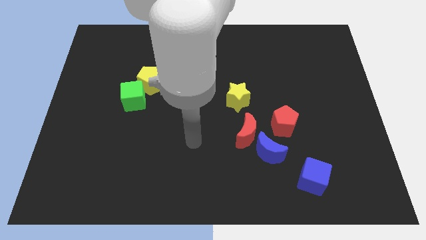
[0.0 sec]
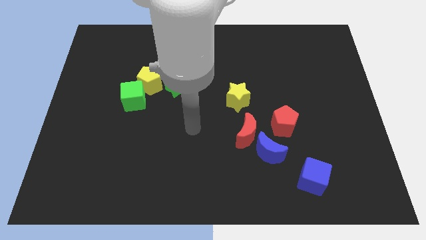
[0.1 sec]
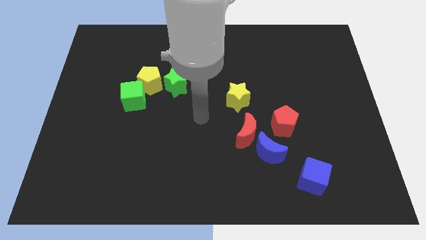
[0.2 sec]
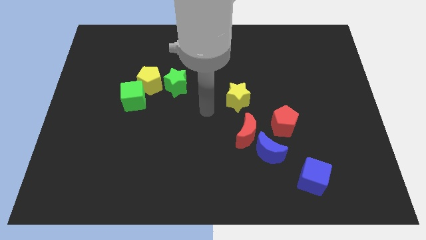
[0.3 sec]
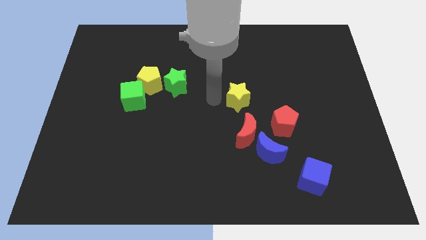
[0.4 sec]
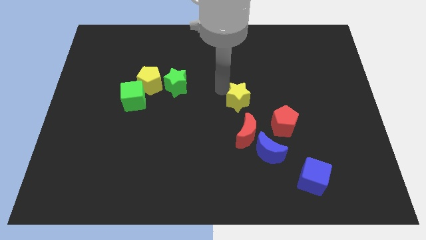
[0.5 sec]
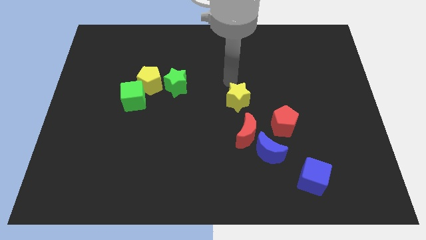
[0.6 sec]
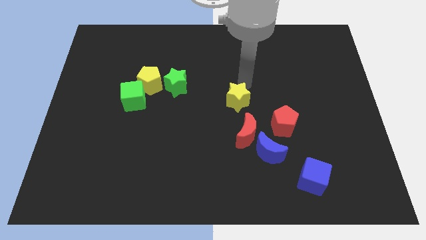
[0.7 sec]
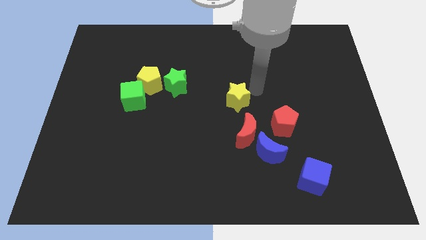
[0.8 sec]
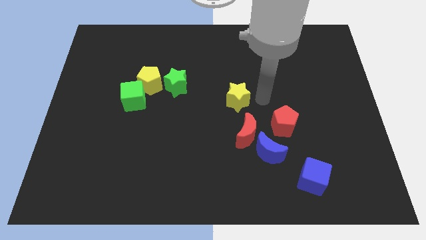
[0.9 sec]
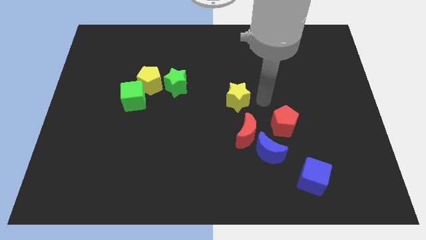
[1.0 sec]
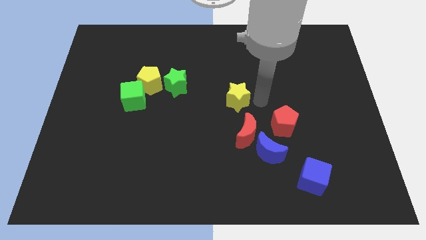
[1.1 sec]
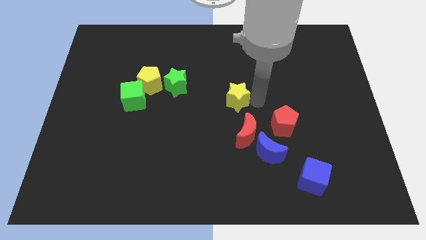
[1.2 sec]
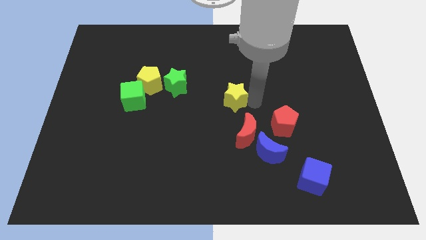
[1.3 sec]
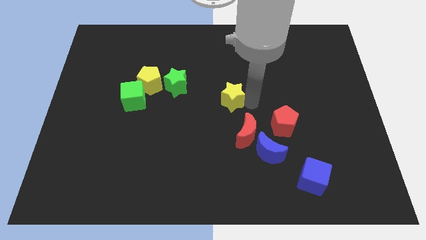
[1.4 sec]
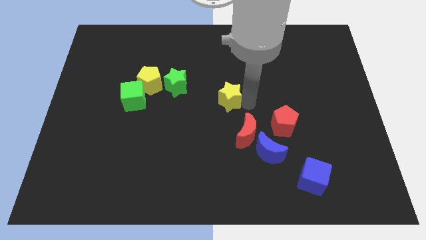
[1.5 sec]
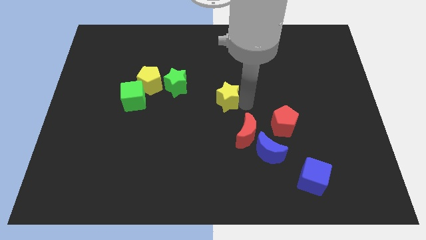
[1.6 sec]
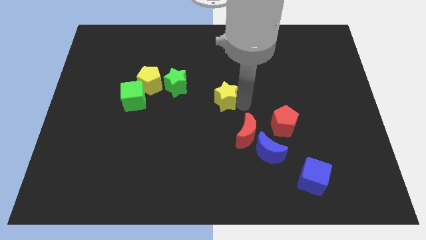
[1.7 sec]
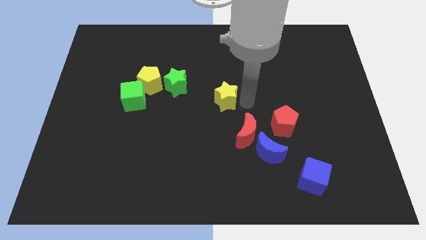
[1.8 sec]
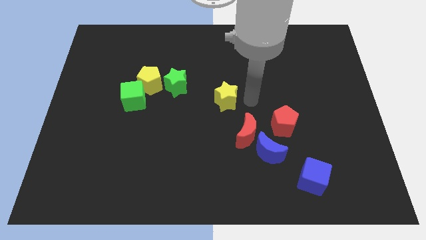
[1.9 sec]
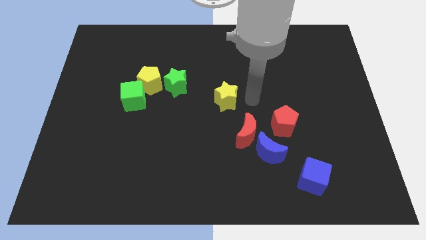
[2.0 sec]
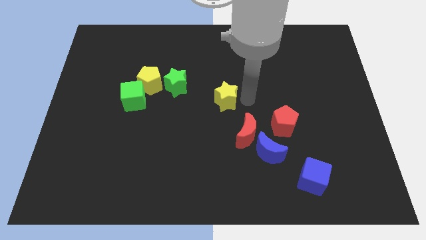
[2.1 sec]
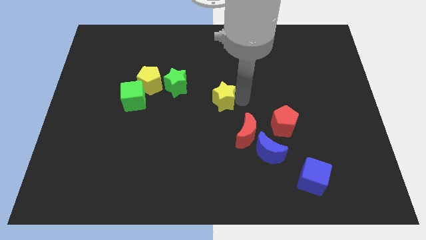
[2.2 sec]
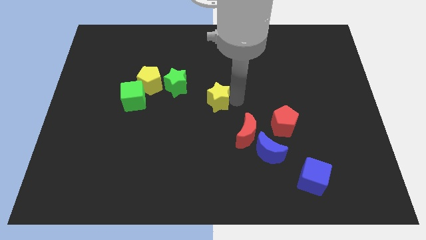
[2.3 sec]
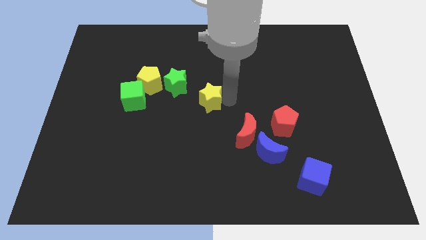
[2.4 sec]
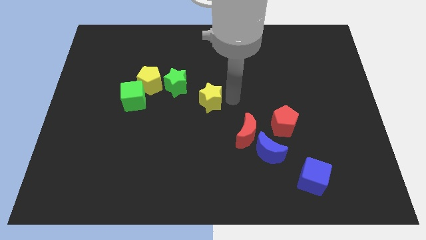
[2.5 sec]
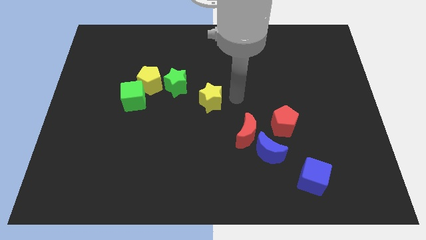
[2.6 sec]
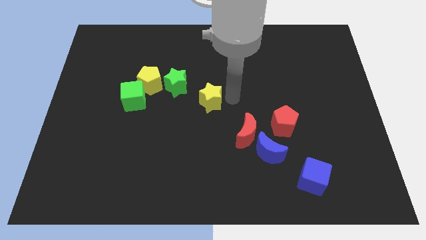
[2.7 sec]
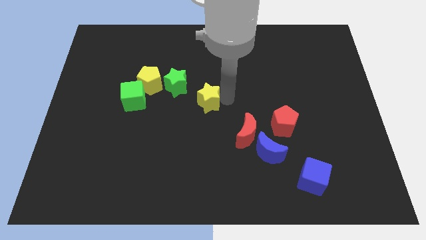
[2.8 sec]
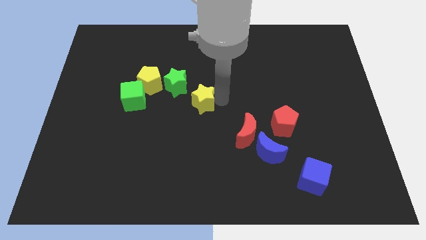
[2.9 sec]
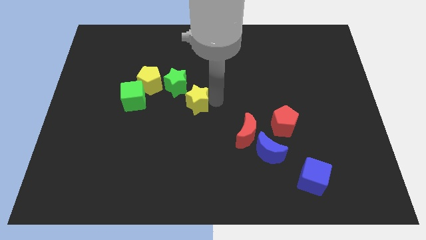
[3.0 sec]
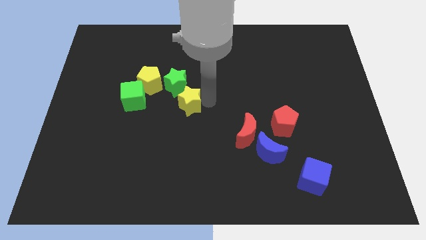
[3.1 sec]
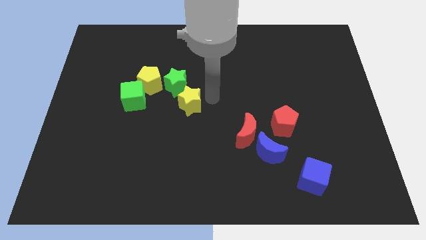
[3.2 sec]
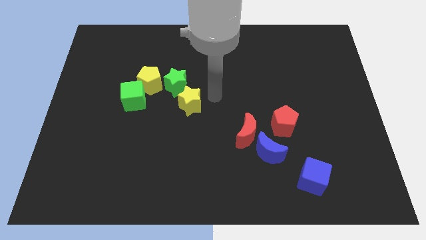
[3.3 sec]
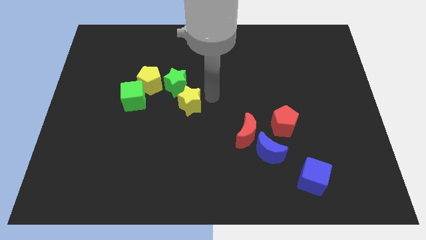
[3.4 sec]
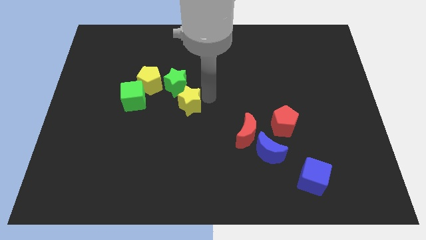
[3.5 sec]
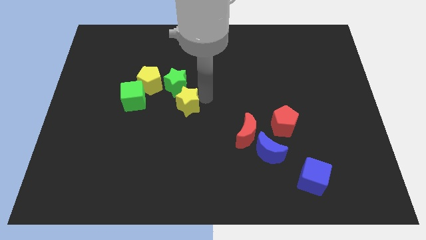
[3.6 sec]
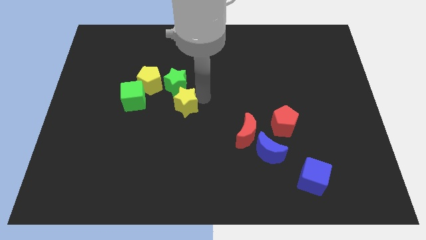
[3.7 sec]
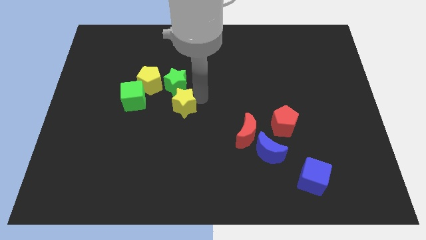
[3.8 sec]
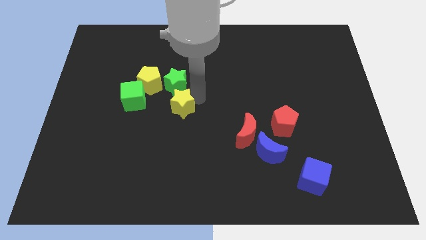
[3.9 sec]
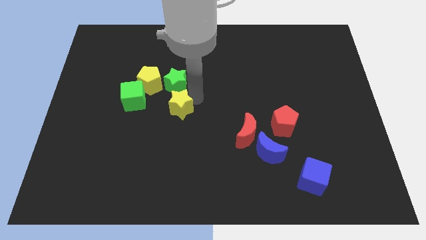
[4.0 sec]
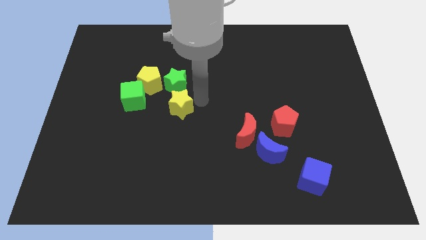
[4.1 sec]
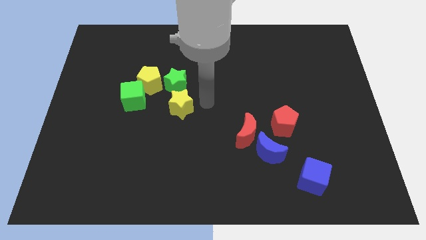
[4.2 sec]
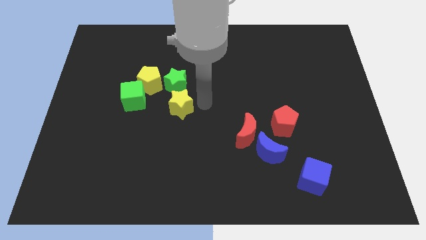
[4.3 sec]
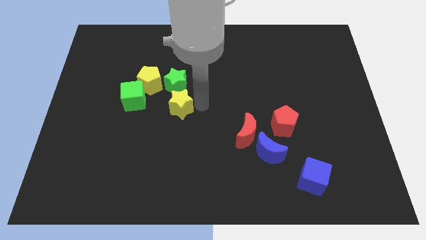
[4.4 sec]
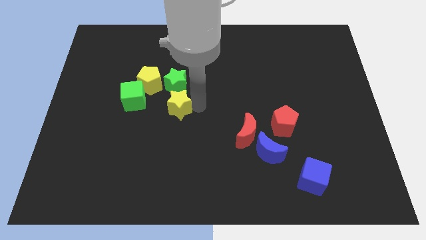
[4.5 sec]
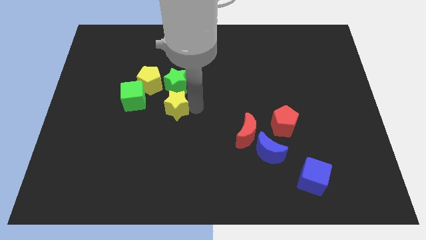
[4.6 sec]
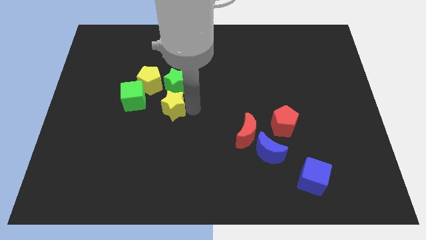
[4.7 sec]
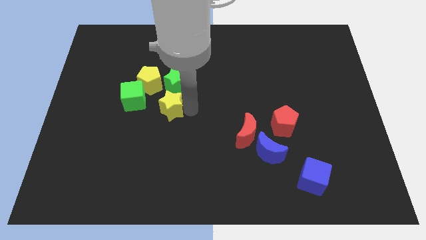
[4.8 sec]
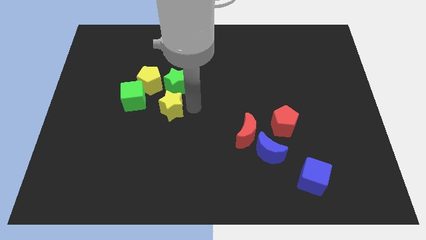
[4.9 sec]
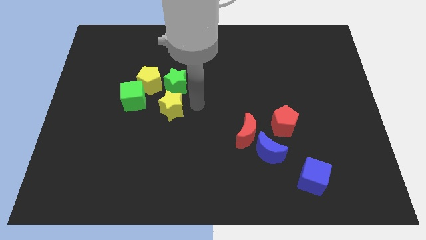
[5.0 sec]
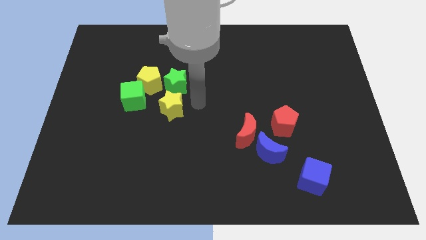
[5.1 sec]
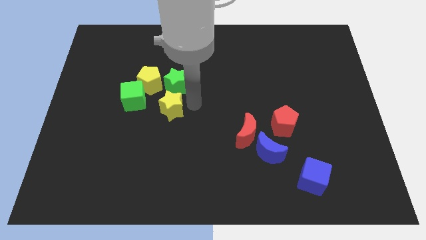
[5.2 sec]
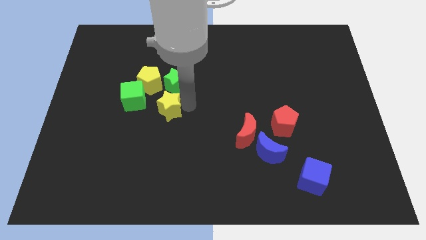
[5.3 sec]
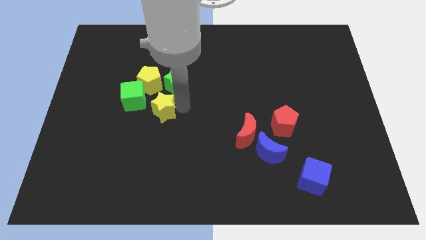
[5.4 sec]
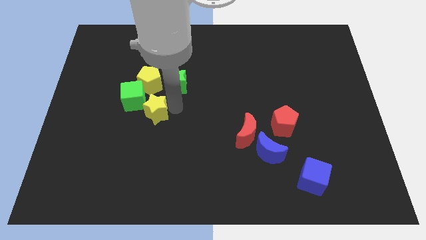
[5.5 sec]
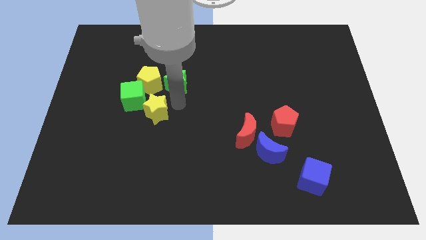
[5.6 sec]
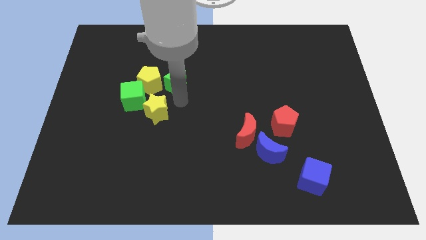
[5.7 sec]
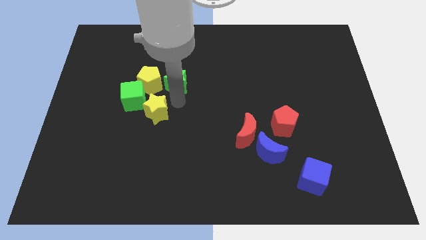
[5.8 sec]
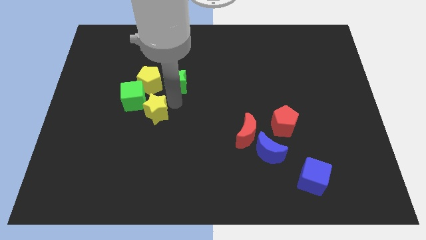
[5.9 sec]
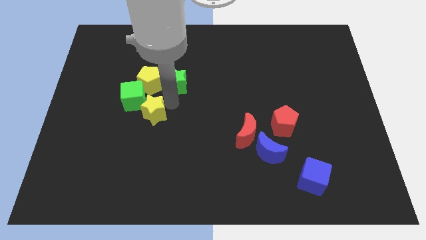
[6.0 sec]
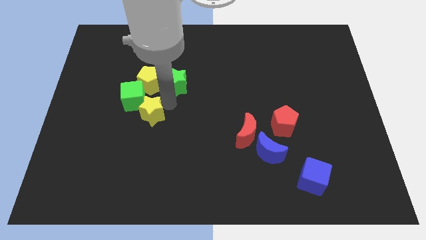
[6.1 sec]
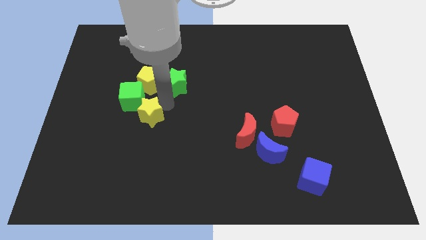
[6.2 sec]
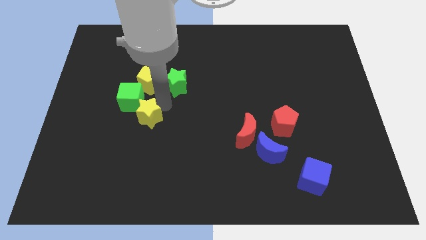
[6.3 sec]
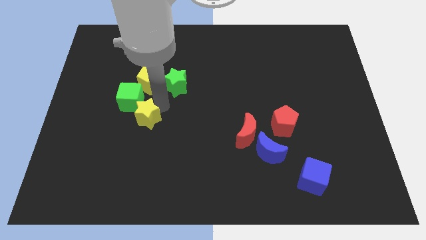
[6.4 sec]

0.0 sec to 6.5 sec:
move the yellow star left

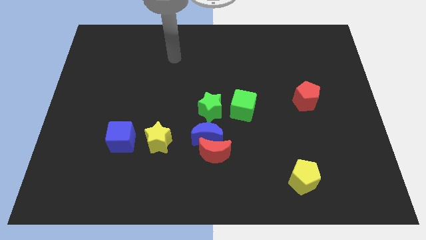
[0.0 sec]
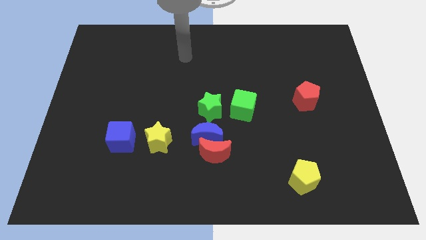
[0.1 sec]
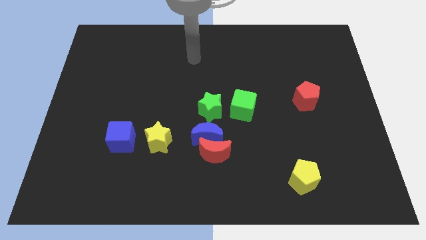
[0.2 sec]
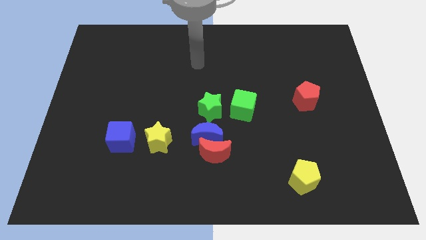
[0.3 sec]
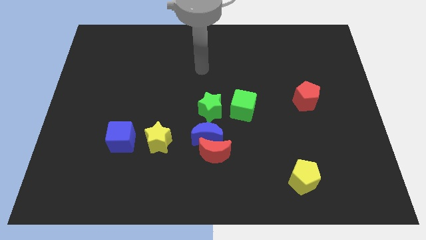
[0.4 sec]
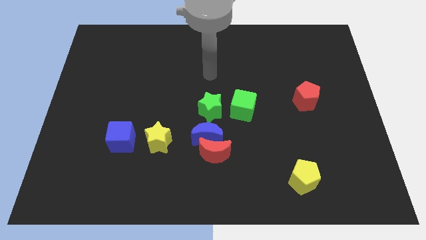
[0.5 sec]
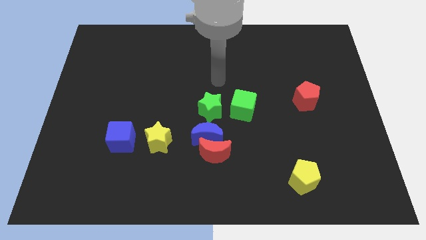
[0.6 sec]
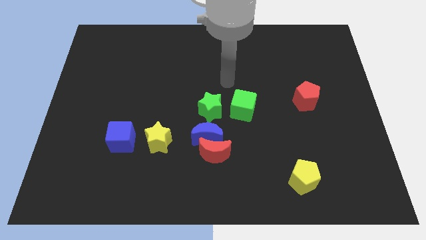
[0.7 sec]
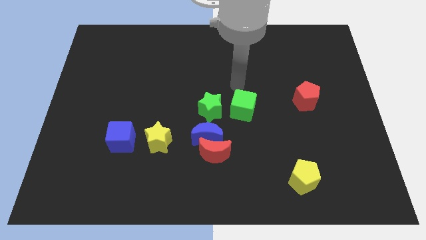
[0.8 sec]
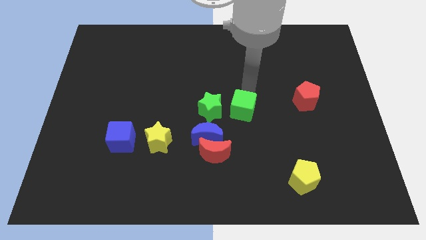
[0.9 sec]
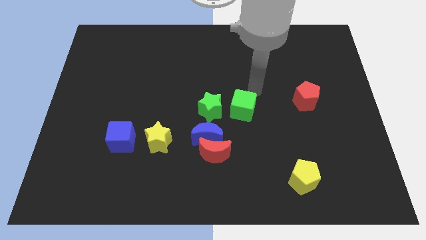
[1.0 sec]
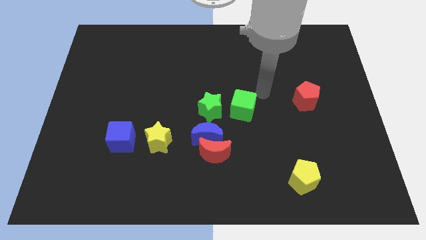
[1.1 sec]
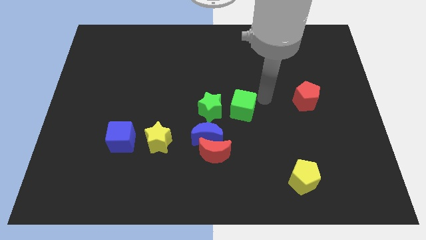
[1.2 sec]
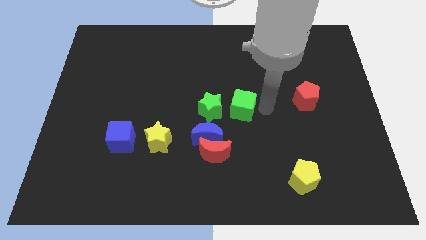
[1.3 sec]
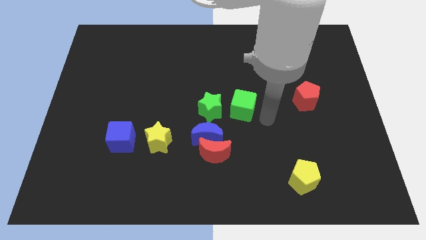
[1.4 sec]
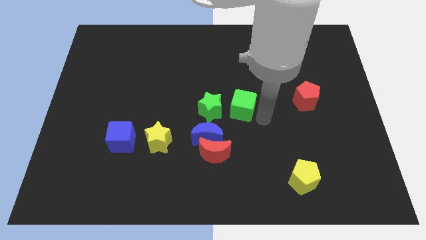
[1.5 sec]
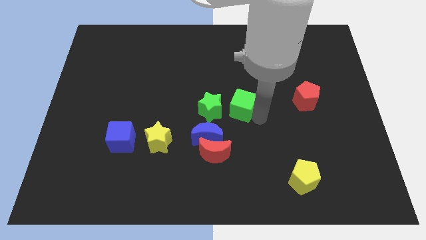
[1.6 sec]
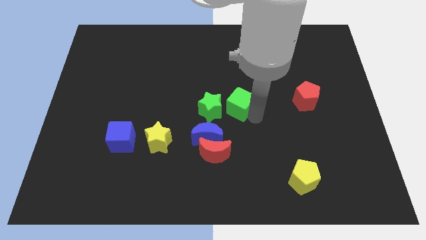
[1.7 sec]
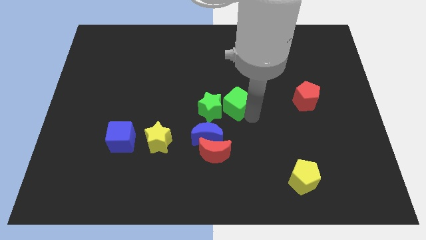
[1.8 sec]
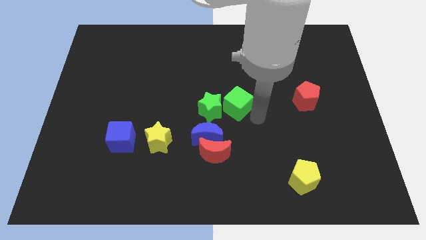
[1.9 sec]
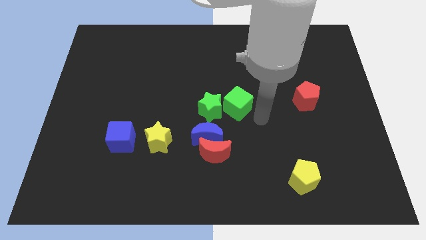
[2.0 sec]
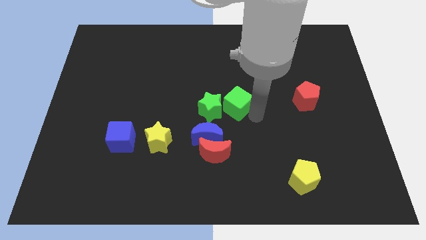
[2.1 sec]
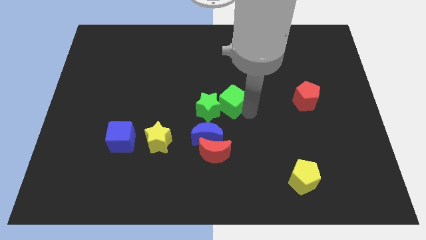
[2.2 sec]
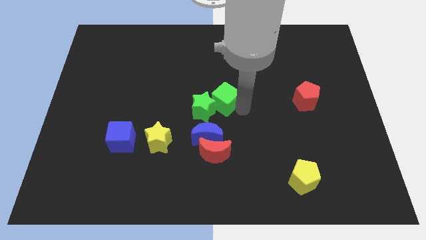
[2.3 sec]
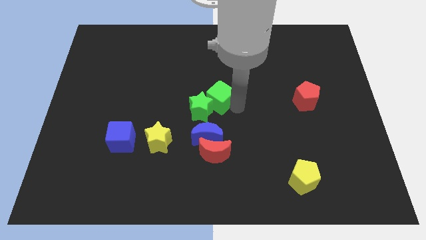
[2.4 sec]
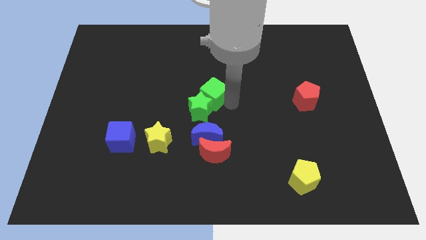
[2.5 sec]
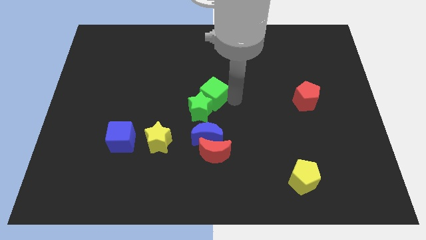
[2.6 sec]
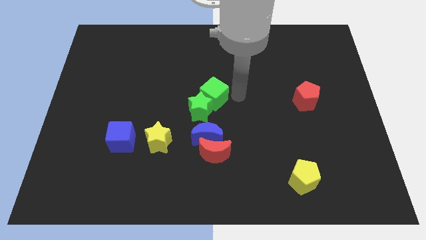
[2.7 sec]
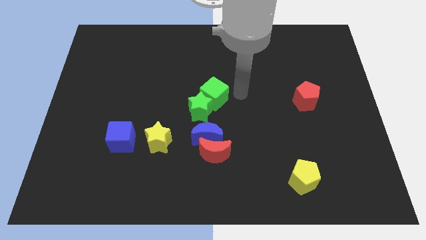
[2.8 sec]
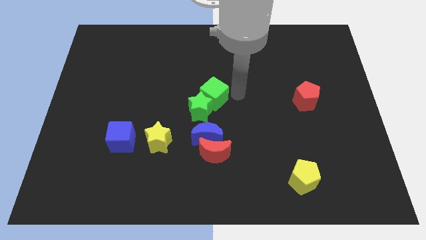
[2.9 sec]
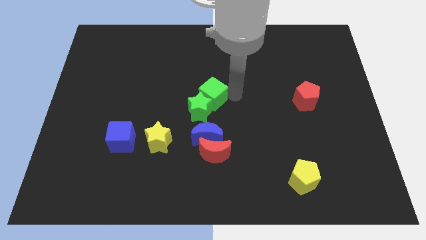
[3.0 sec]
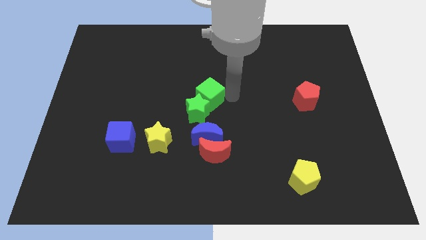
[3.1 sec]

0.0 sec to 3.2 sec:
move the green cube a little bit to the left
